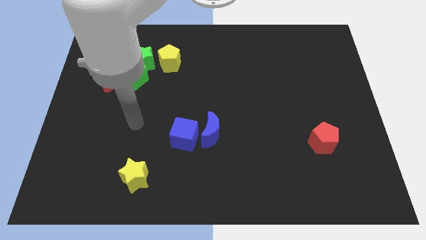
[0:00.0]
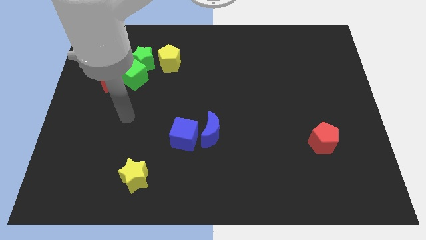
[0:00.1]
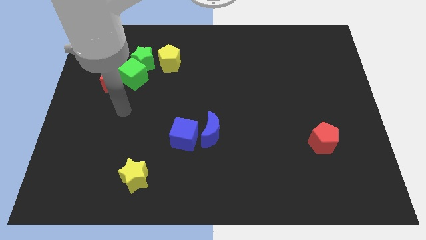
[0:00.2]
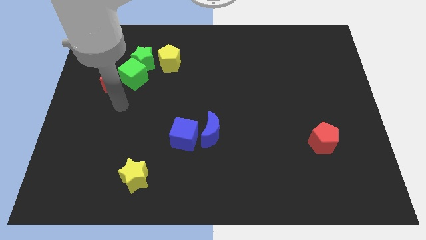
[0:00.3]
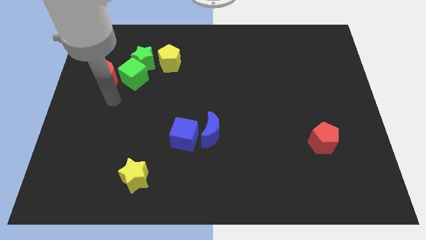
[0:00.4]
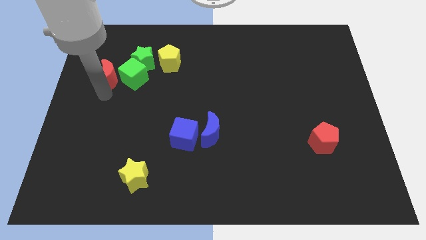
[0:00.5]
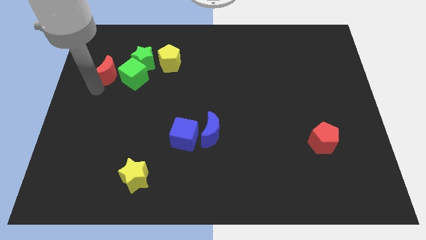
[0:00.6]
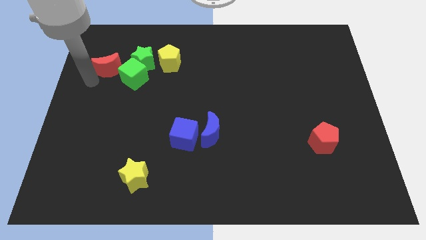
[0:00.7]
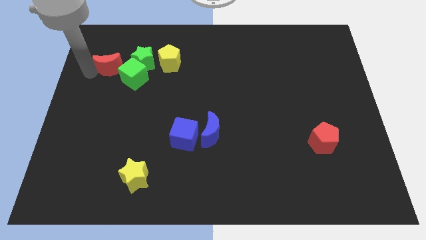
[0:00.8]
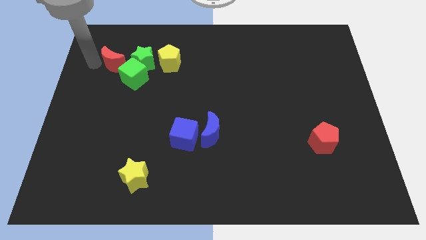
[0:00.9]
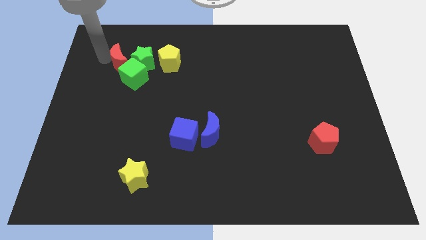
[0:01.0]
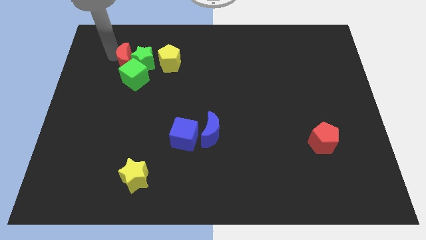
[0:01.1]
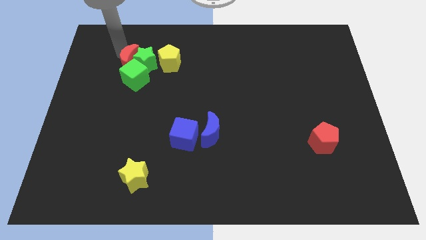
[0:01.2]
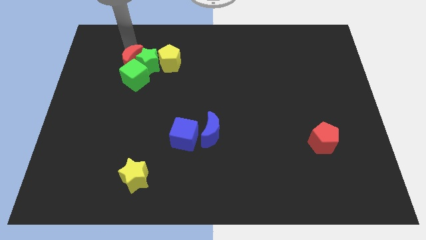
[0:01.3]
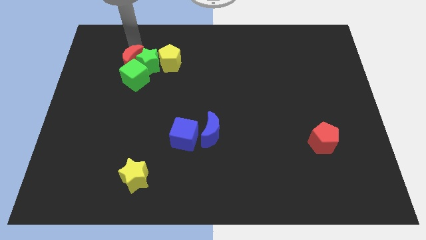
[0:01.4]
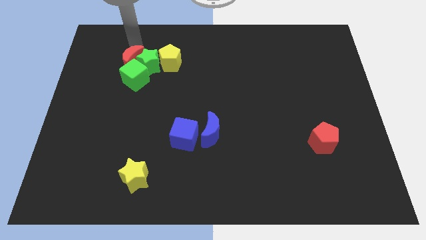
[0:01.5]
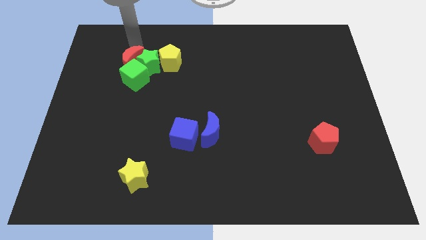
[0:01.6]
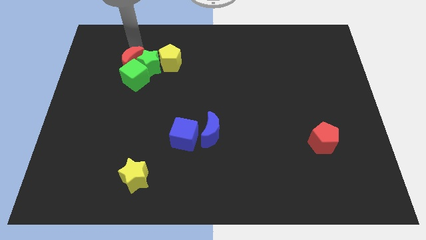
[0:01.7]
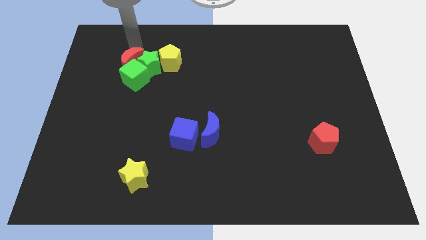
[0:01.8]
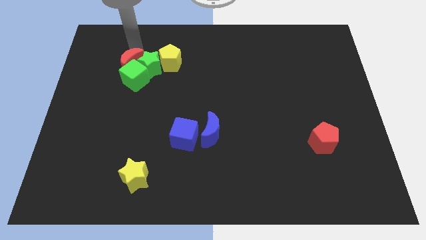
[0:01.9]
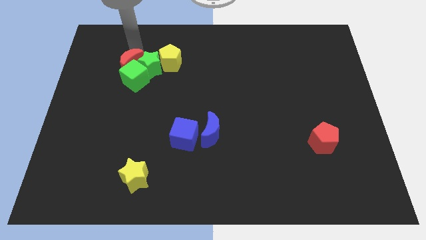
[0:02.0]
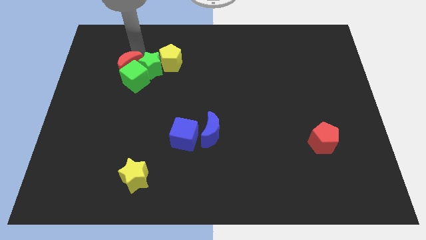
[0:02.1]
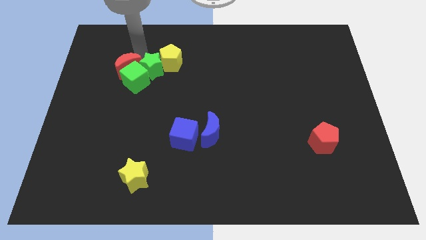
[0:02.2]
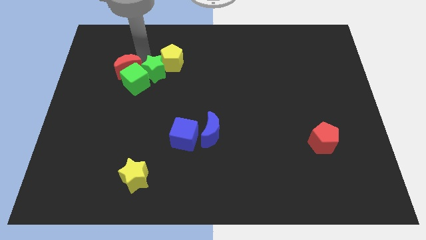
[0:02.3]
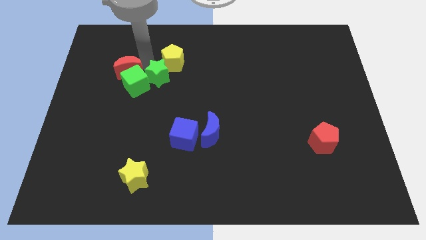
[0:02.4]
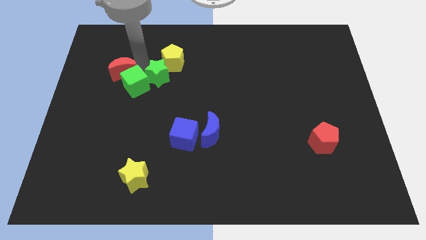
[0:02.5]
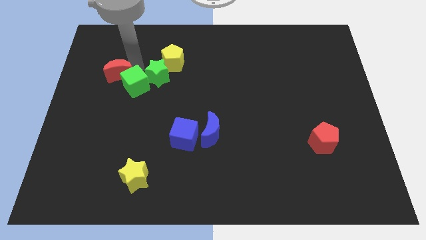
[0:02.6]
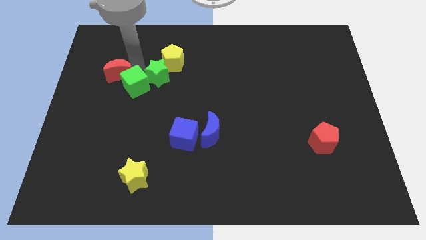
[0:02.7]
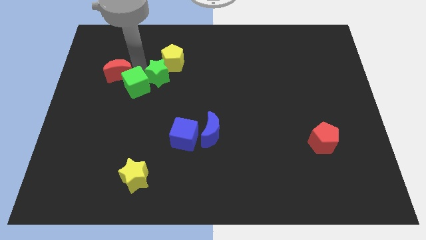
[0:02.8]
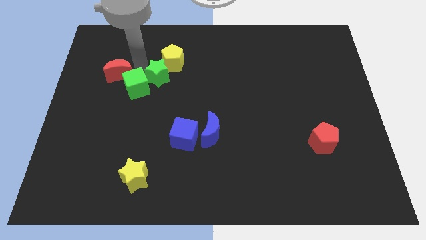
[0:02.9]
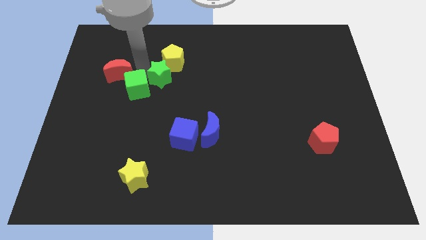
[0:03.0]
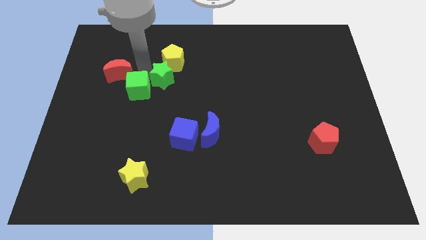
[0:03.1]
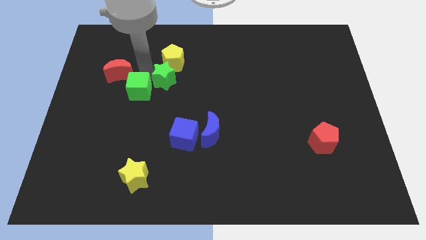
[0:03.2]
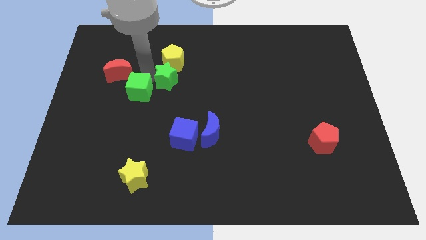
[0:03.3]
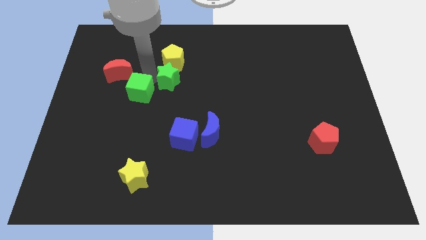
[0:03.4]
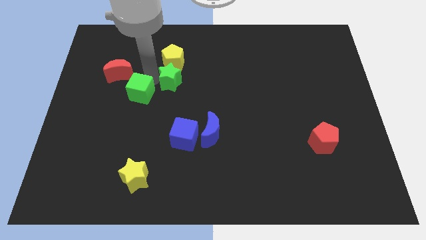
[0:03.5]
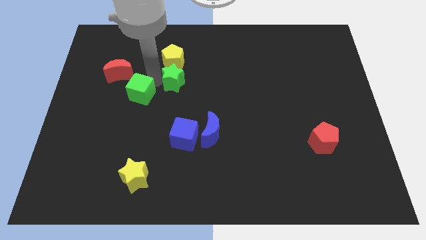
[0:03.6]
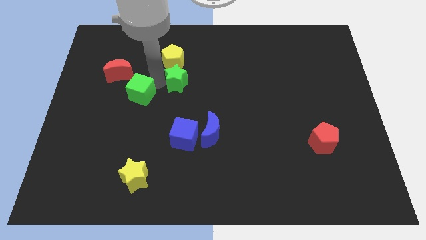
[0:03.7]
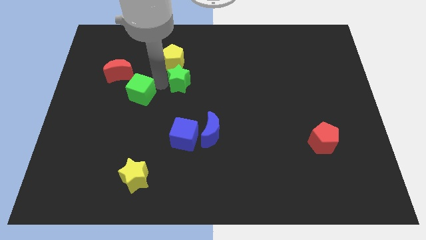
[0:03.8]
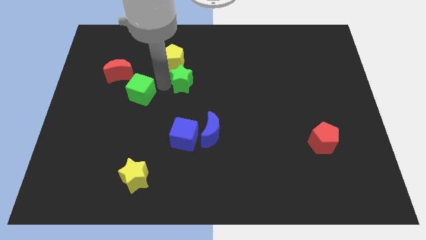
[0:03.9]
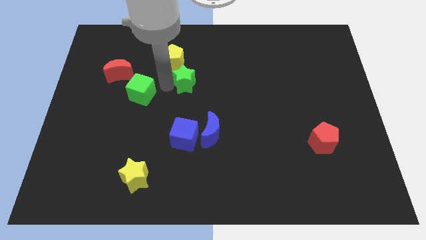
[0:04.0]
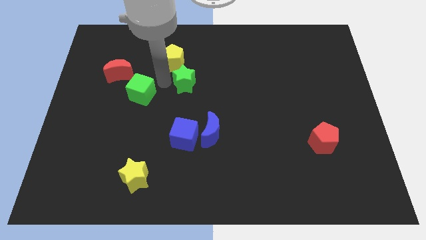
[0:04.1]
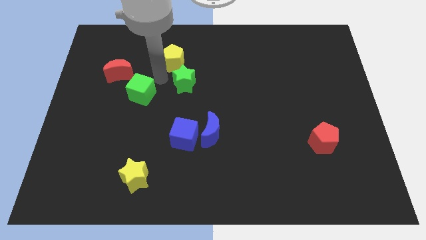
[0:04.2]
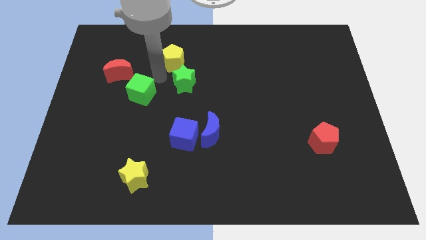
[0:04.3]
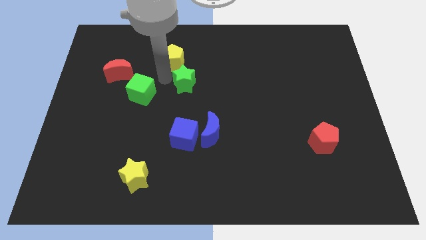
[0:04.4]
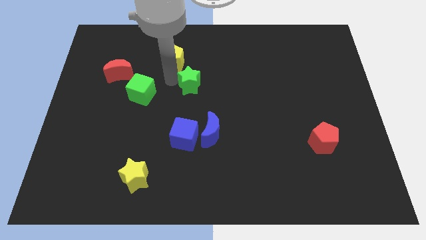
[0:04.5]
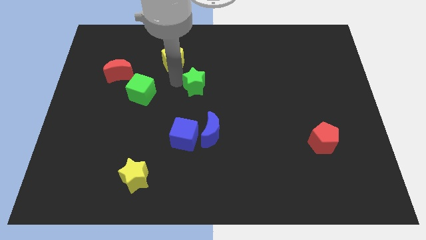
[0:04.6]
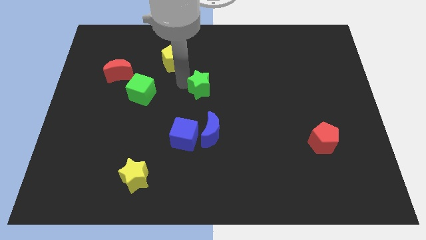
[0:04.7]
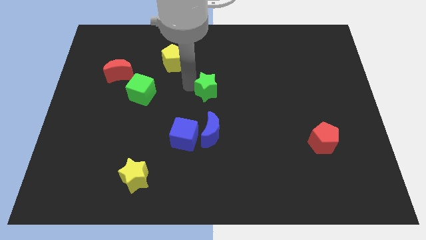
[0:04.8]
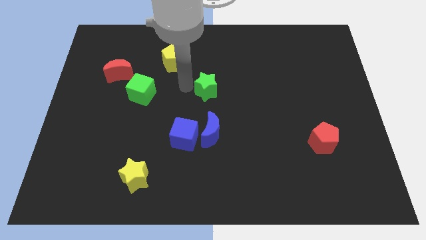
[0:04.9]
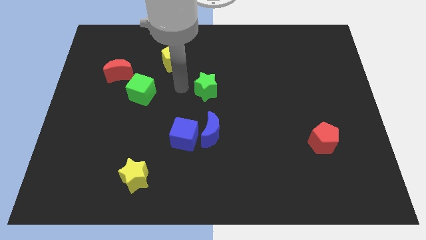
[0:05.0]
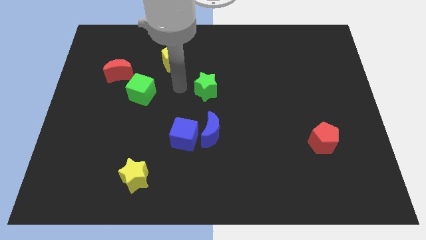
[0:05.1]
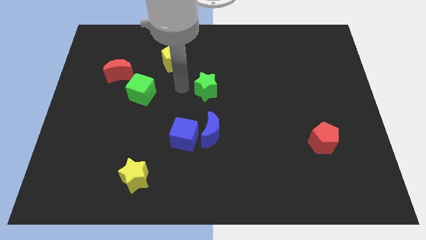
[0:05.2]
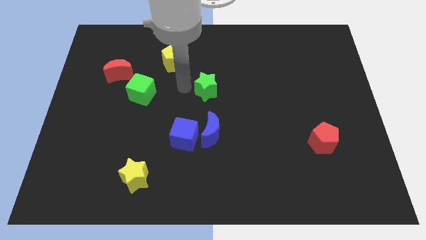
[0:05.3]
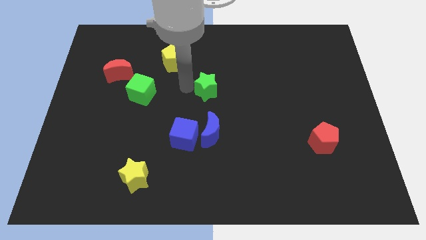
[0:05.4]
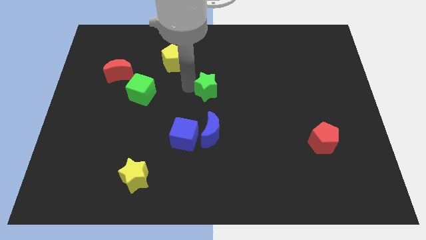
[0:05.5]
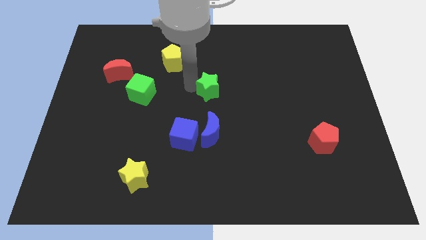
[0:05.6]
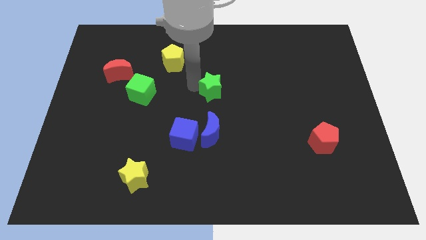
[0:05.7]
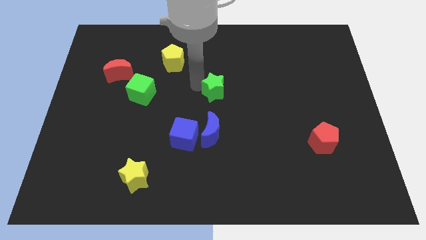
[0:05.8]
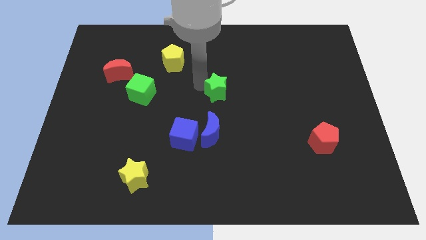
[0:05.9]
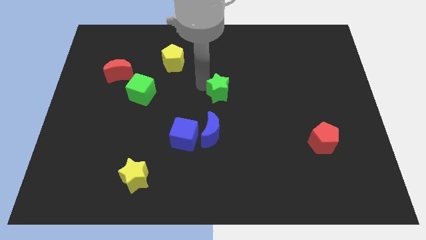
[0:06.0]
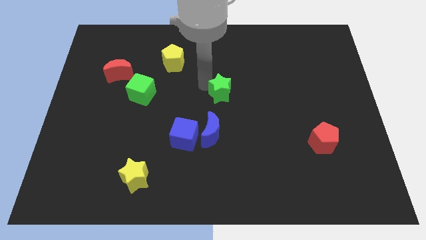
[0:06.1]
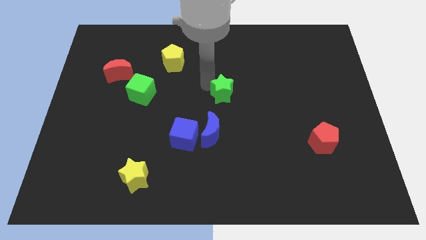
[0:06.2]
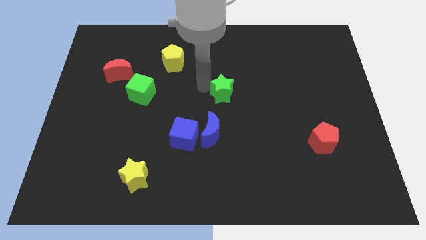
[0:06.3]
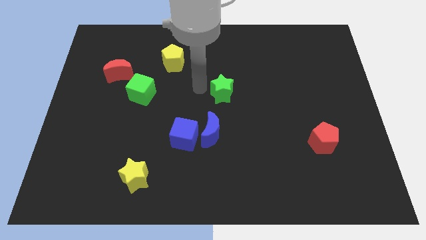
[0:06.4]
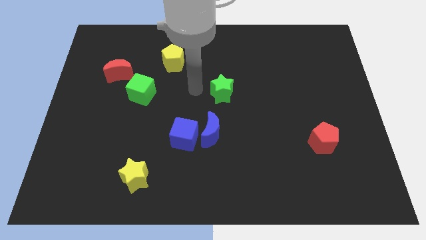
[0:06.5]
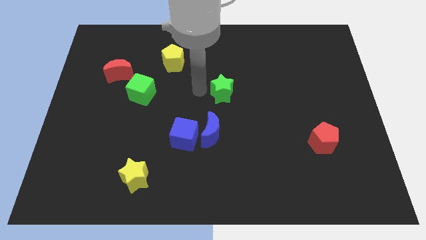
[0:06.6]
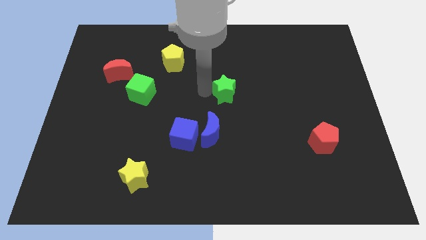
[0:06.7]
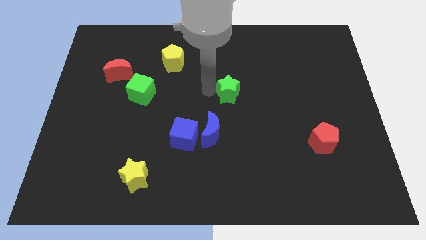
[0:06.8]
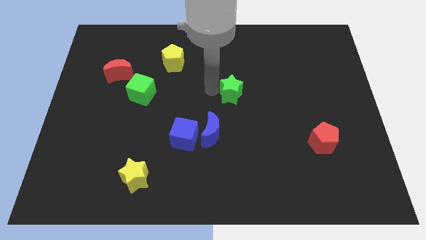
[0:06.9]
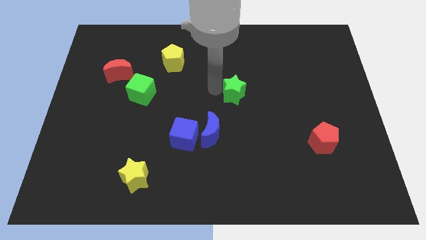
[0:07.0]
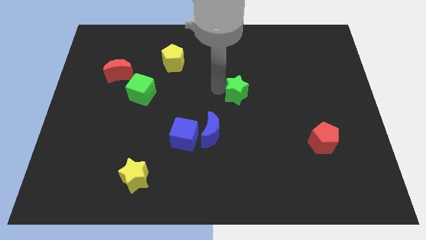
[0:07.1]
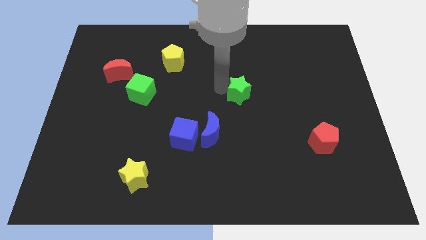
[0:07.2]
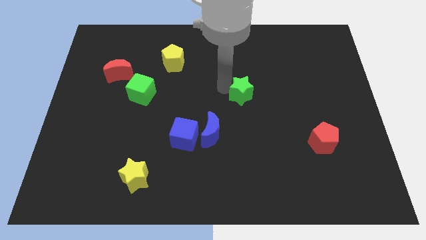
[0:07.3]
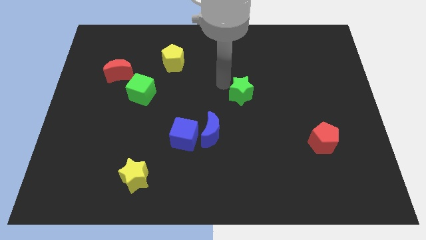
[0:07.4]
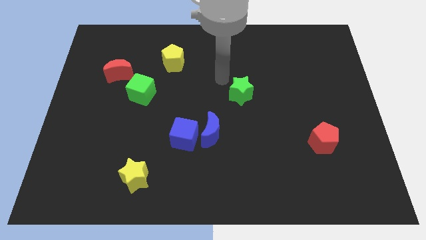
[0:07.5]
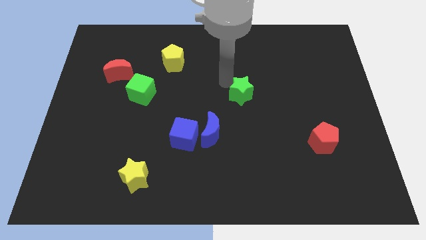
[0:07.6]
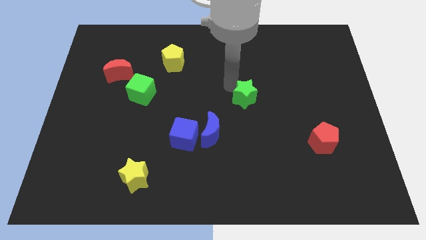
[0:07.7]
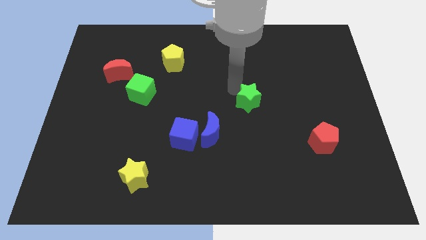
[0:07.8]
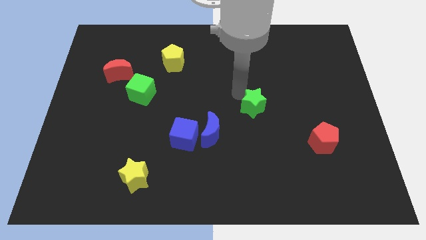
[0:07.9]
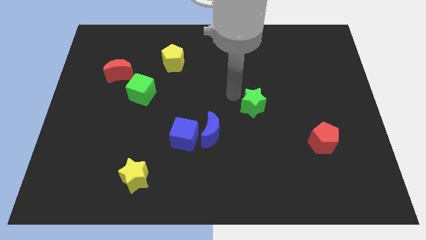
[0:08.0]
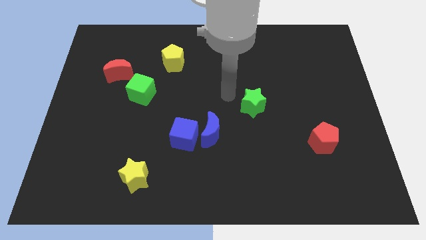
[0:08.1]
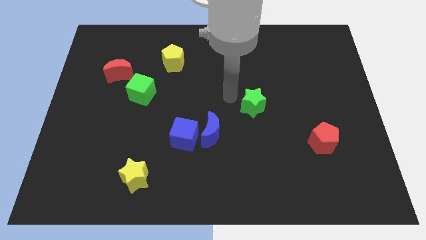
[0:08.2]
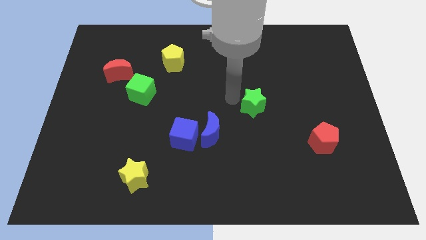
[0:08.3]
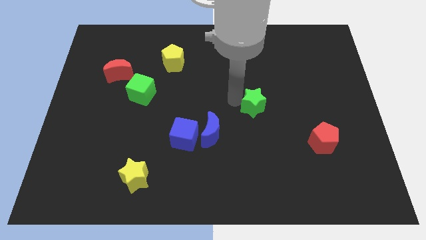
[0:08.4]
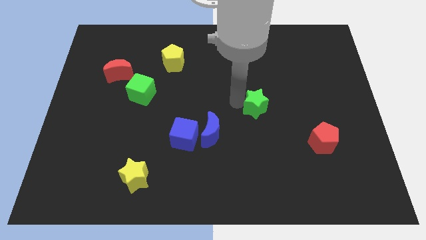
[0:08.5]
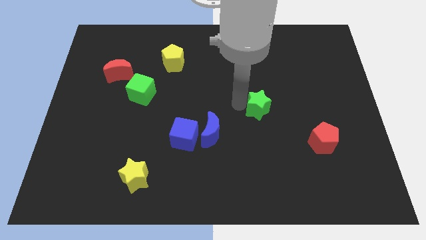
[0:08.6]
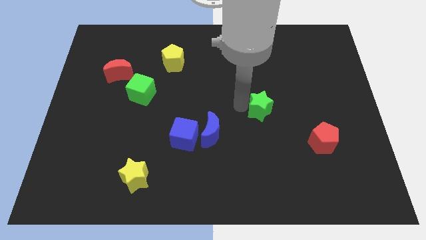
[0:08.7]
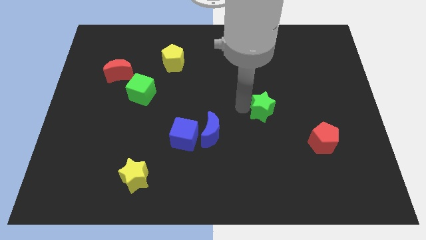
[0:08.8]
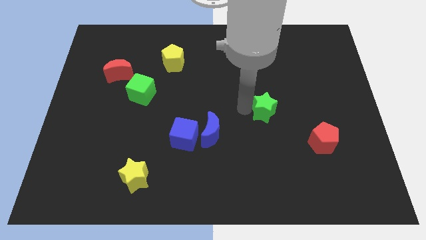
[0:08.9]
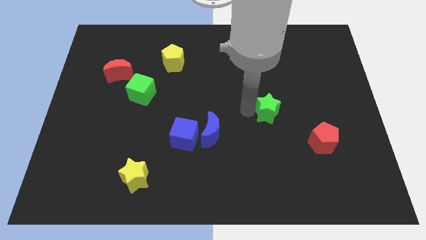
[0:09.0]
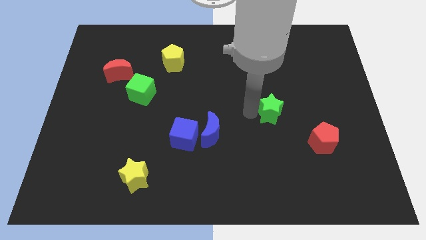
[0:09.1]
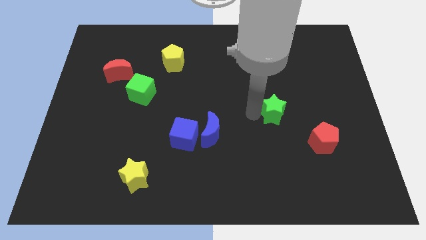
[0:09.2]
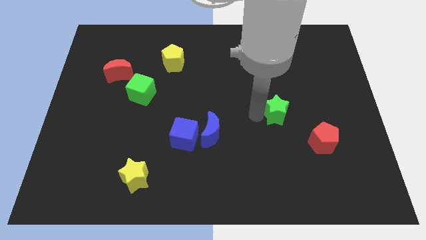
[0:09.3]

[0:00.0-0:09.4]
push the green star diagonally up and to the left of the red pentagon
